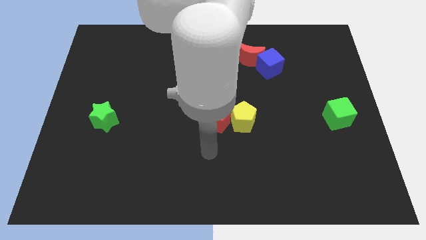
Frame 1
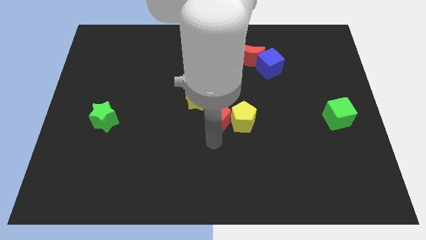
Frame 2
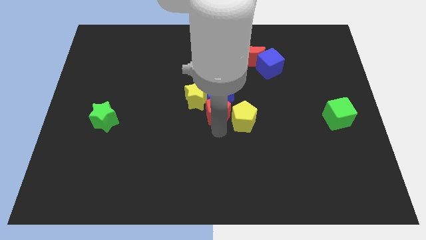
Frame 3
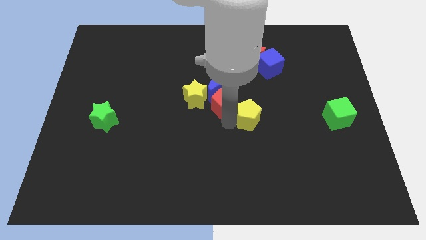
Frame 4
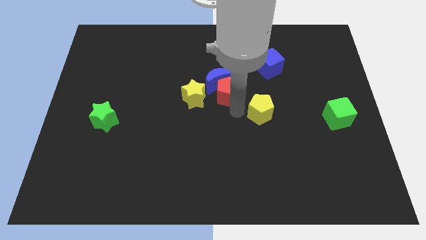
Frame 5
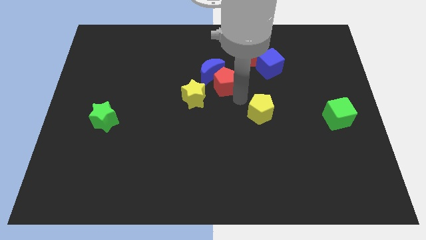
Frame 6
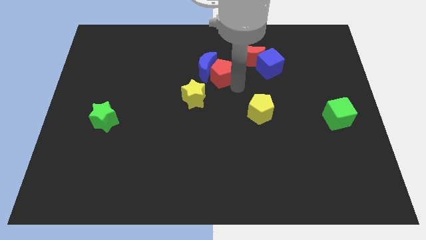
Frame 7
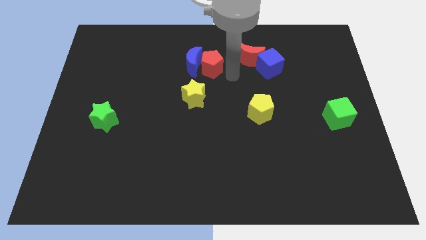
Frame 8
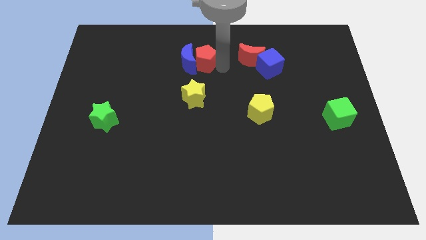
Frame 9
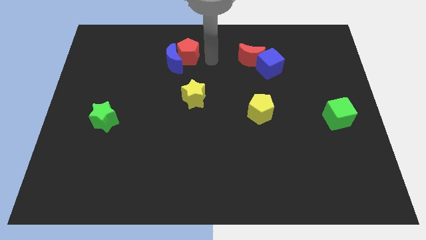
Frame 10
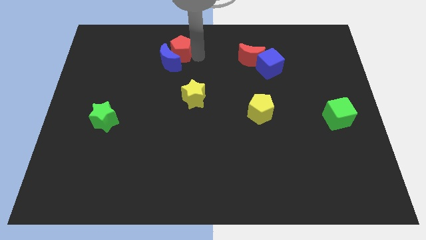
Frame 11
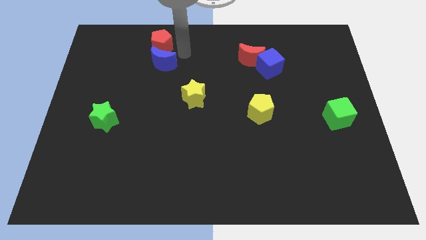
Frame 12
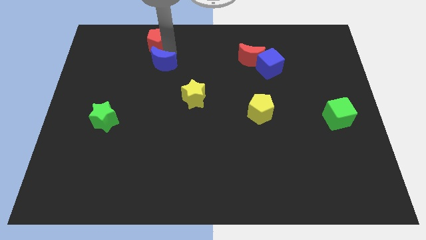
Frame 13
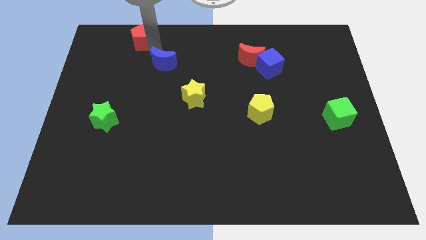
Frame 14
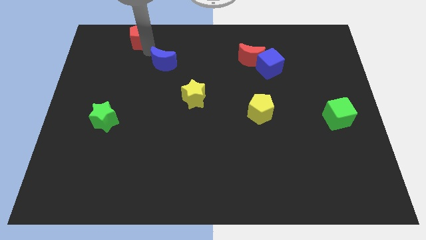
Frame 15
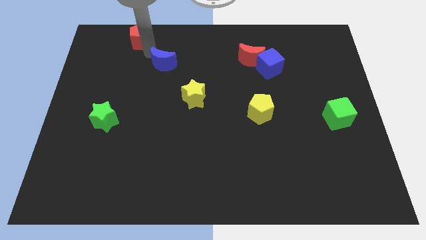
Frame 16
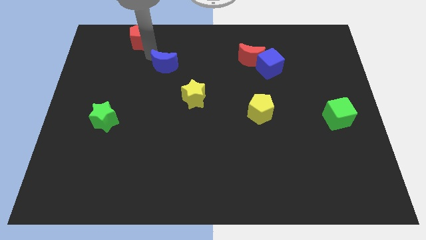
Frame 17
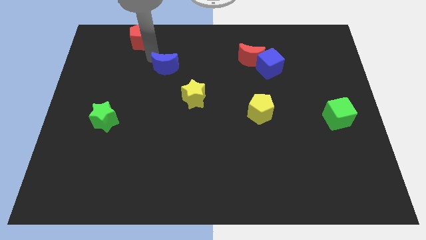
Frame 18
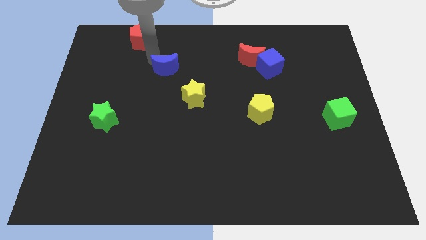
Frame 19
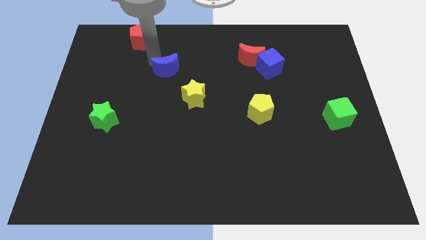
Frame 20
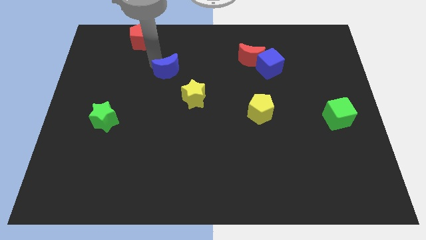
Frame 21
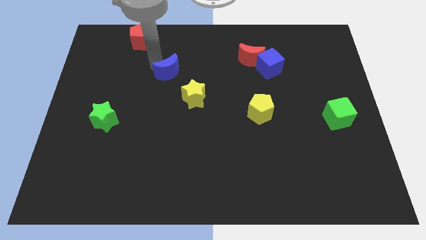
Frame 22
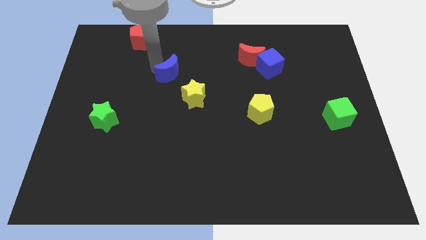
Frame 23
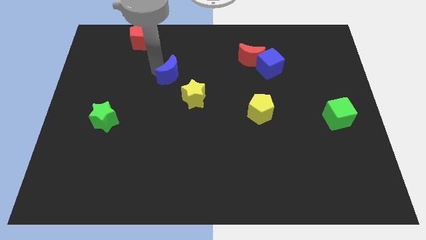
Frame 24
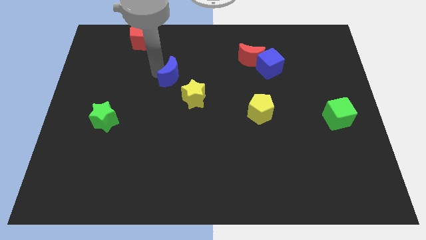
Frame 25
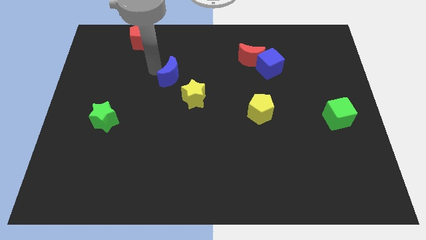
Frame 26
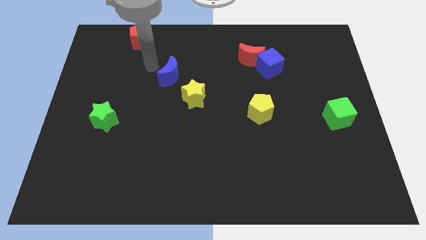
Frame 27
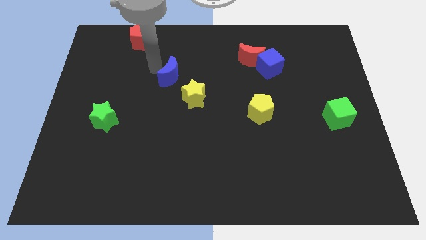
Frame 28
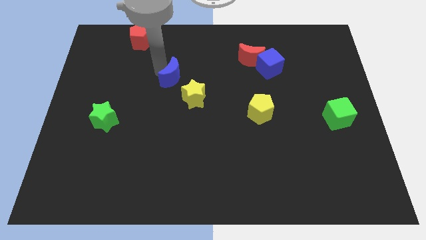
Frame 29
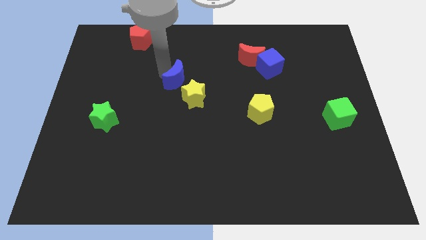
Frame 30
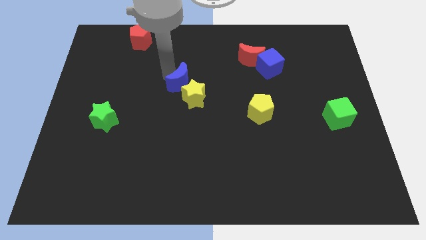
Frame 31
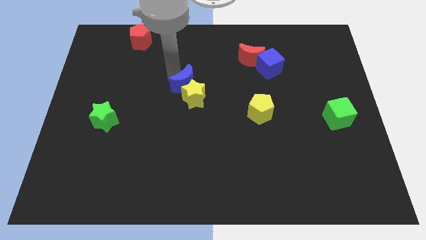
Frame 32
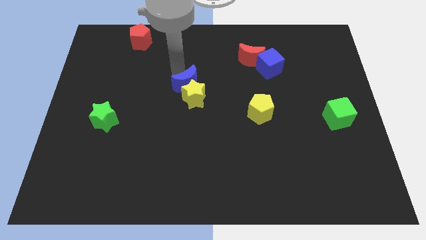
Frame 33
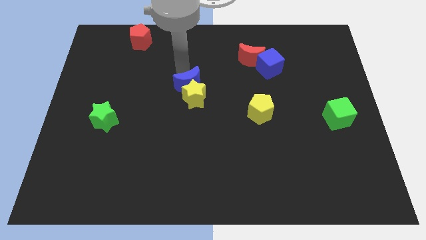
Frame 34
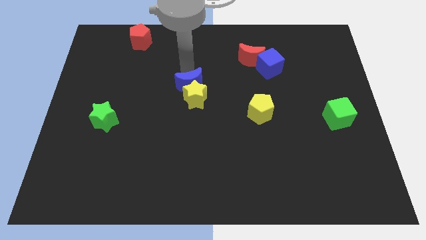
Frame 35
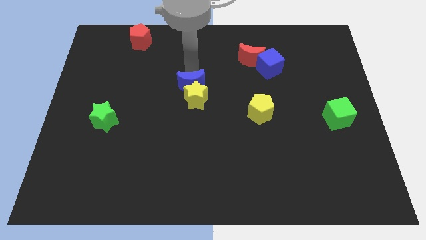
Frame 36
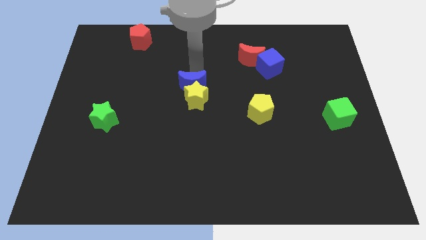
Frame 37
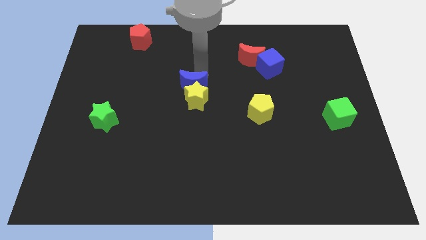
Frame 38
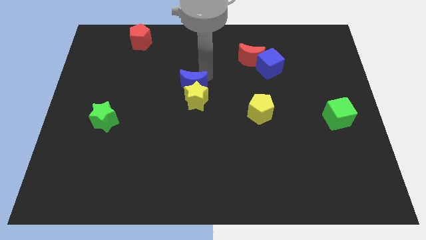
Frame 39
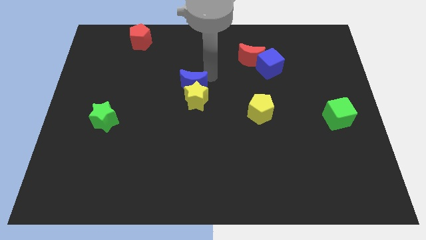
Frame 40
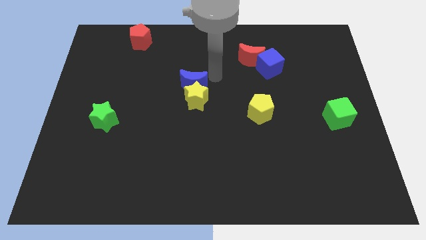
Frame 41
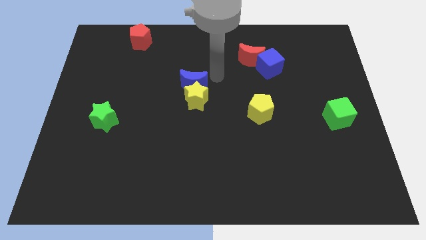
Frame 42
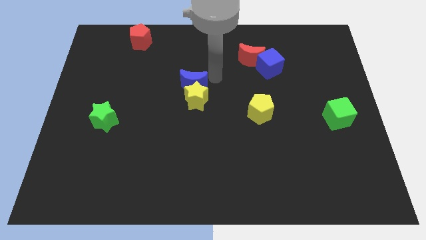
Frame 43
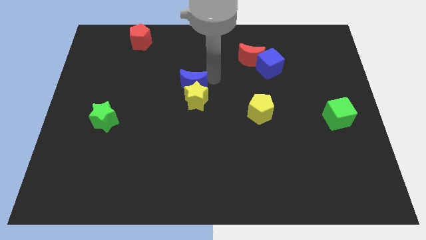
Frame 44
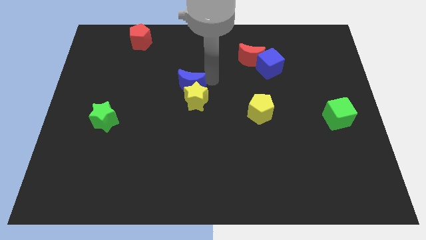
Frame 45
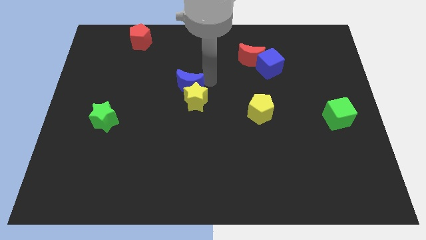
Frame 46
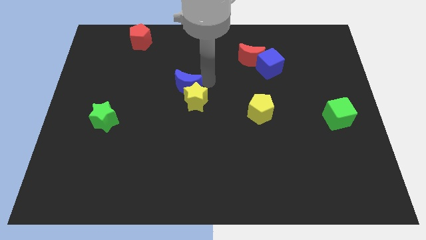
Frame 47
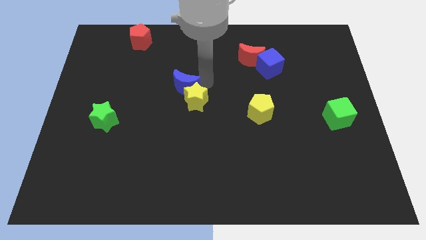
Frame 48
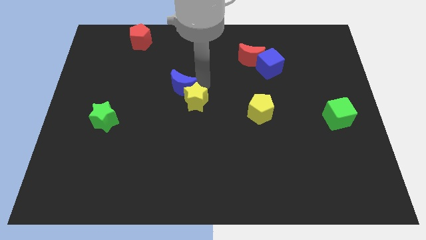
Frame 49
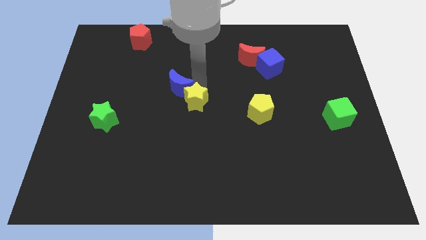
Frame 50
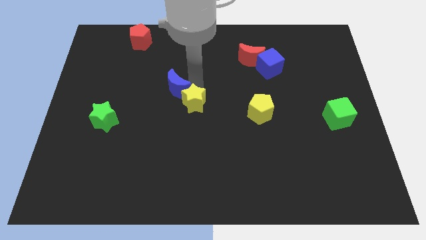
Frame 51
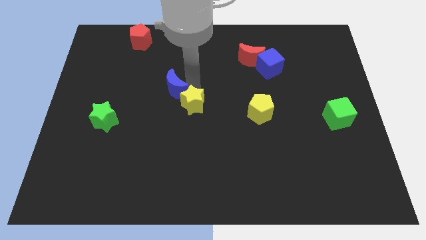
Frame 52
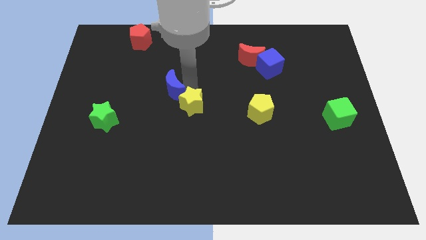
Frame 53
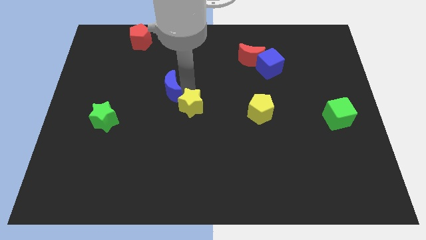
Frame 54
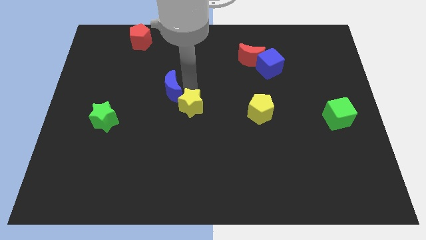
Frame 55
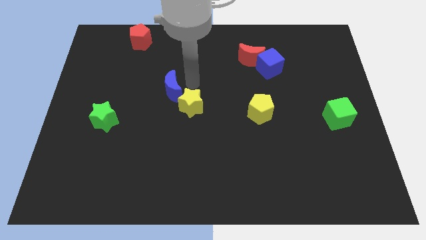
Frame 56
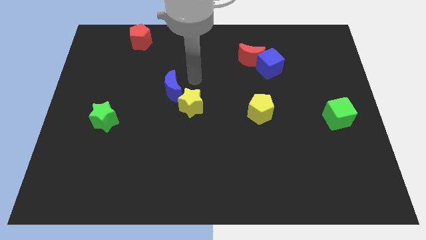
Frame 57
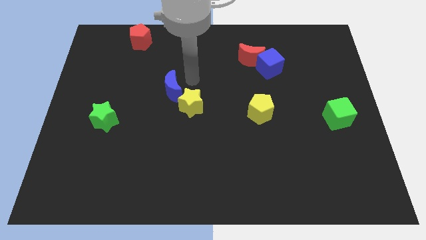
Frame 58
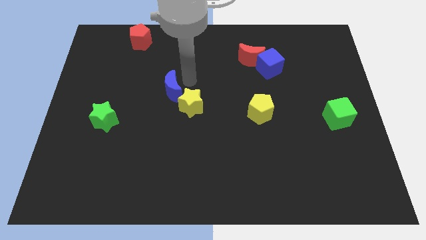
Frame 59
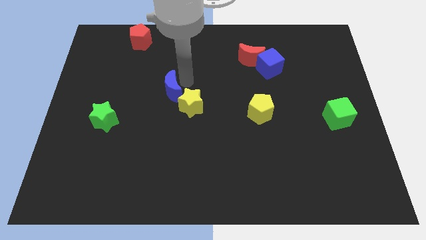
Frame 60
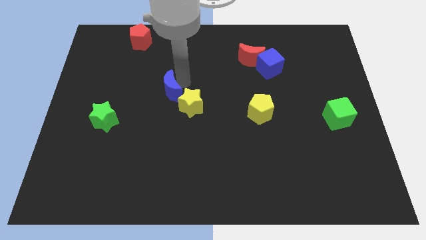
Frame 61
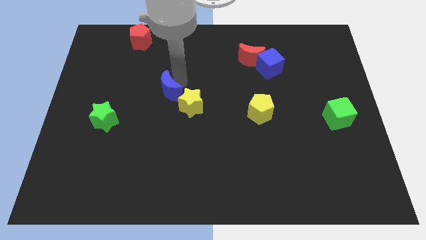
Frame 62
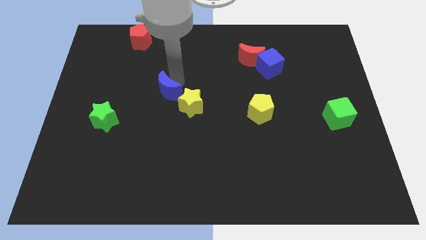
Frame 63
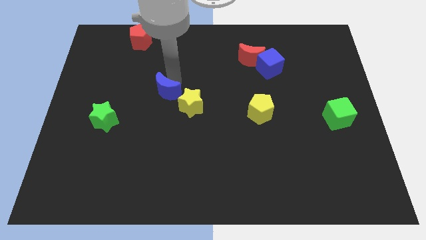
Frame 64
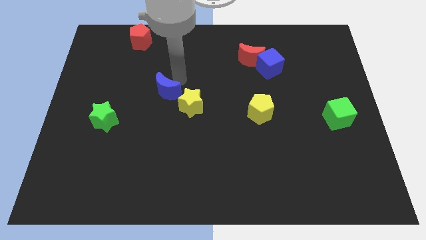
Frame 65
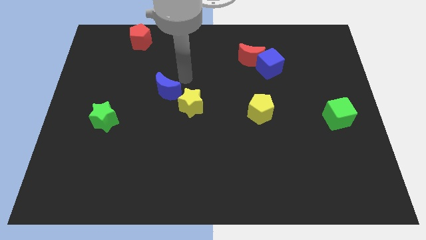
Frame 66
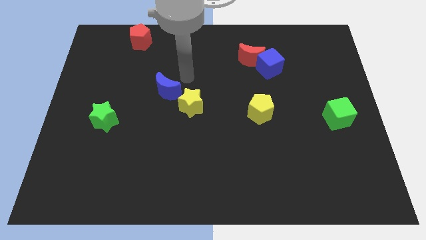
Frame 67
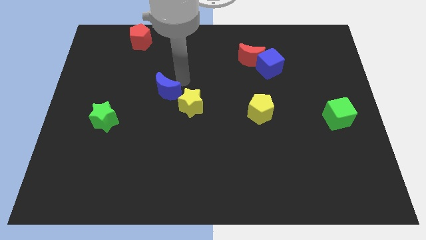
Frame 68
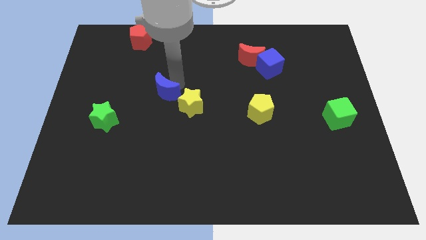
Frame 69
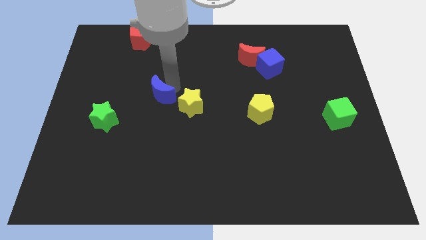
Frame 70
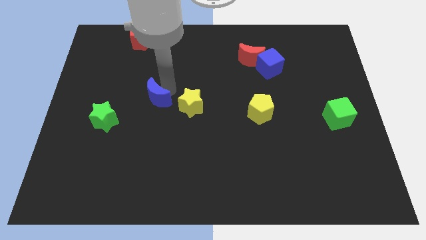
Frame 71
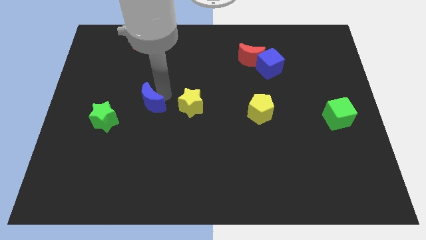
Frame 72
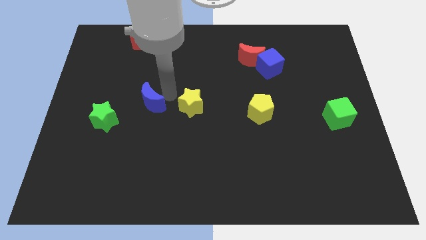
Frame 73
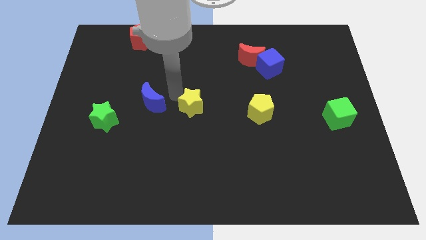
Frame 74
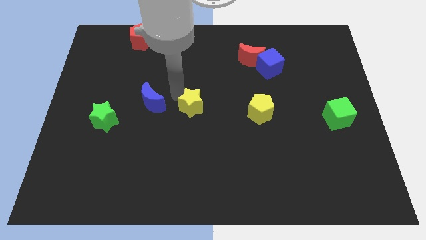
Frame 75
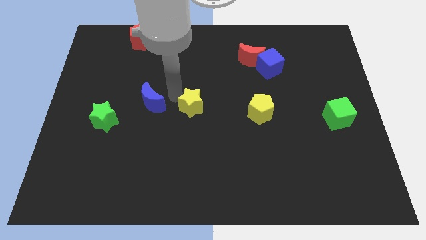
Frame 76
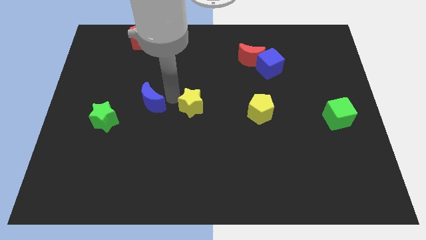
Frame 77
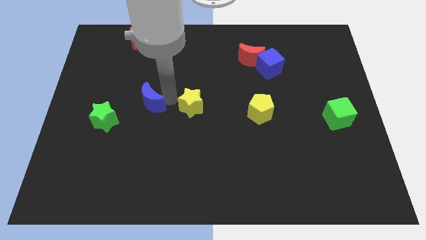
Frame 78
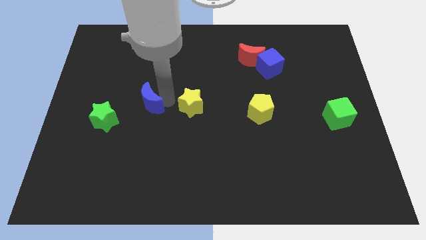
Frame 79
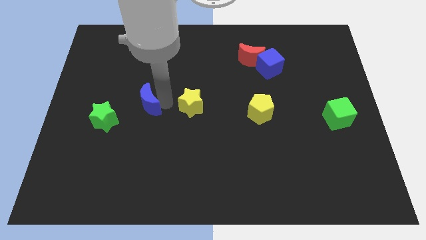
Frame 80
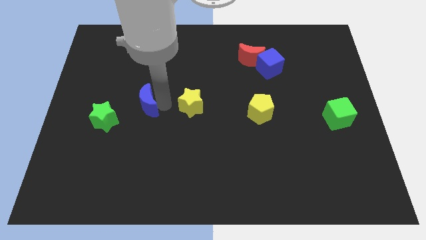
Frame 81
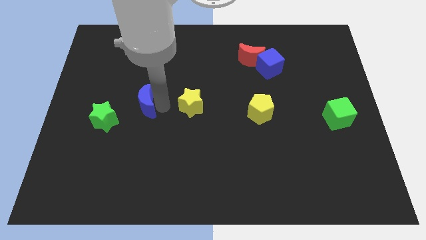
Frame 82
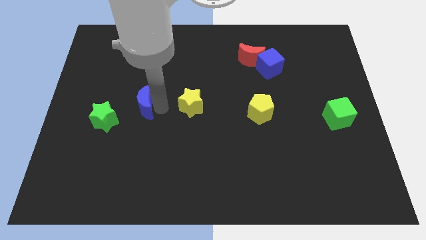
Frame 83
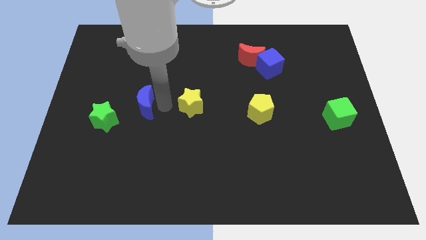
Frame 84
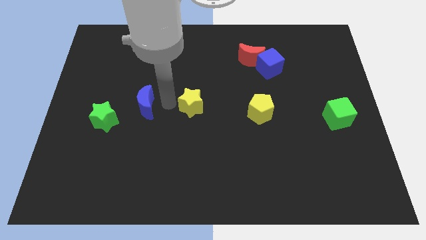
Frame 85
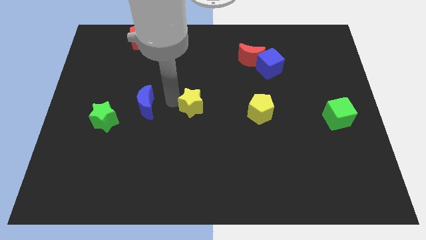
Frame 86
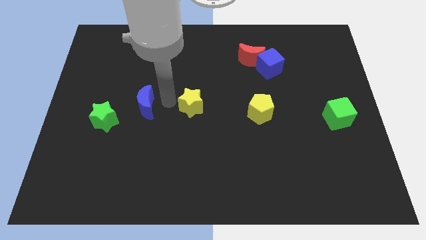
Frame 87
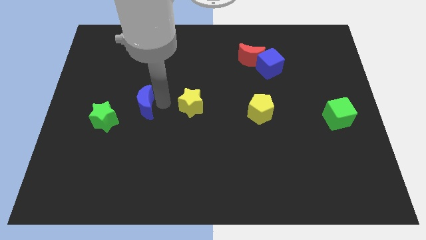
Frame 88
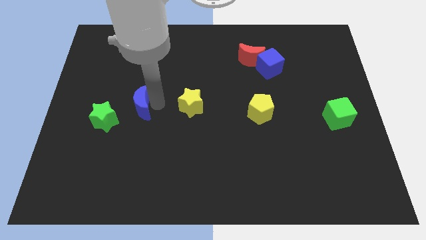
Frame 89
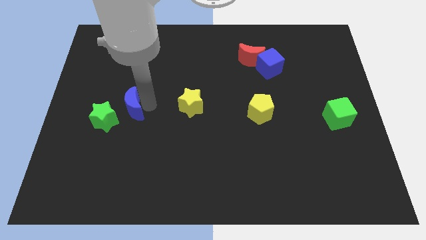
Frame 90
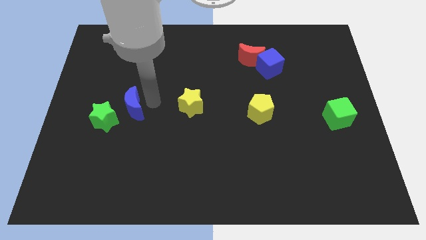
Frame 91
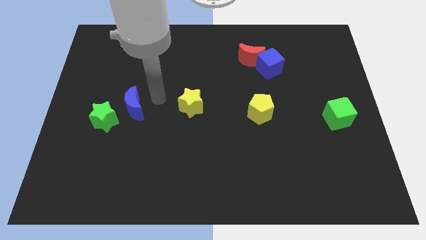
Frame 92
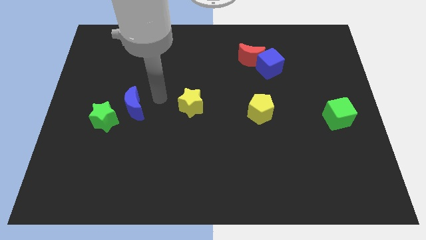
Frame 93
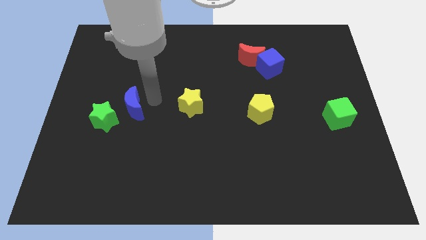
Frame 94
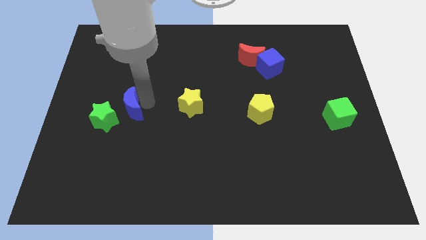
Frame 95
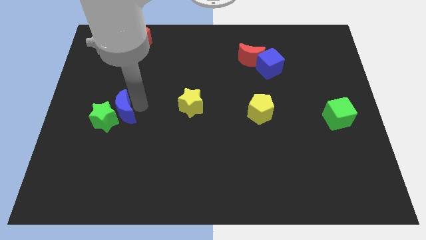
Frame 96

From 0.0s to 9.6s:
move the blue moon towards the green star
